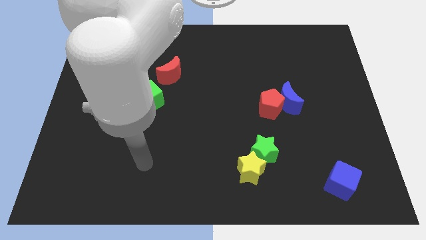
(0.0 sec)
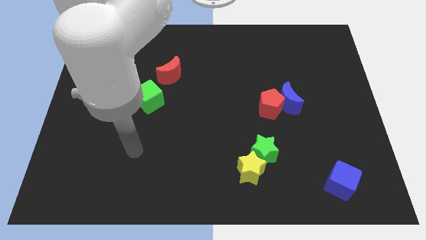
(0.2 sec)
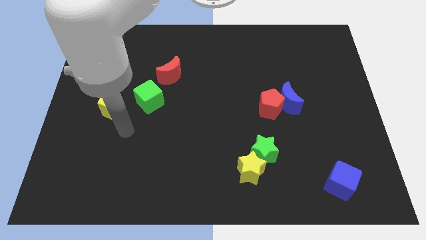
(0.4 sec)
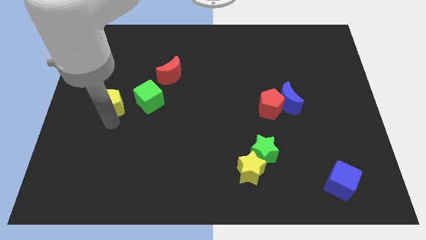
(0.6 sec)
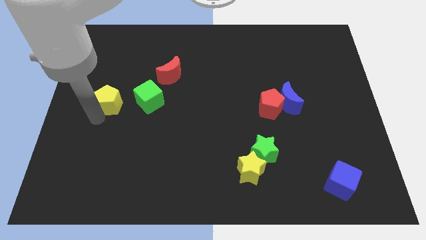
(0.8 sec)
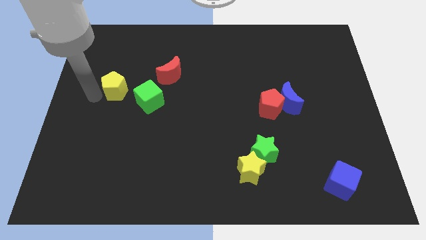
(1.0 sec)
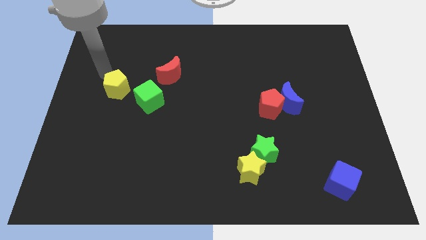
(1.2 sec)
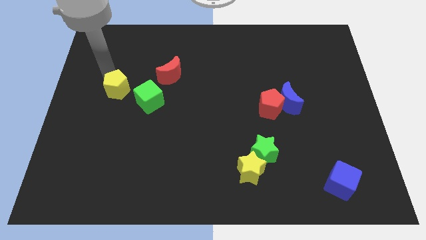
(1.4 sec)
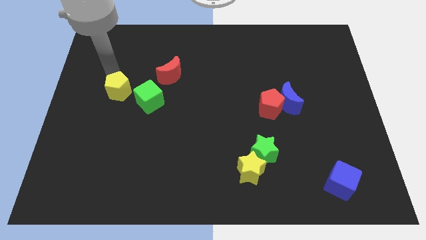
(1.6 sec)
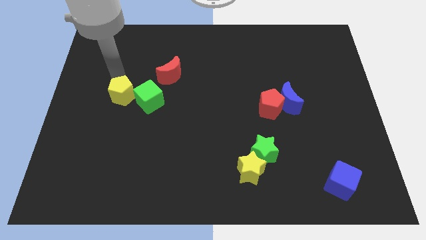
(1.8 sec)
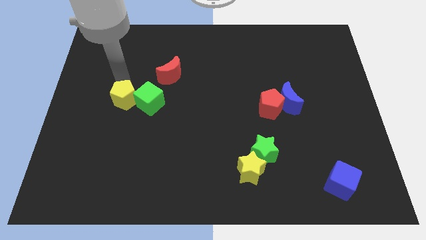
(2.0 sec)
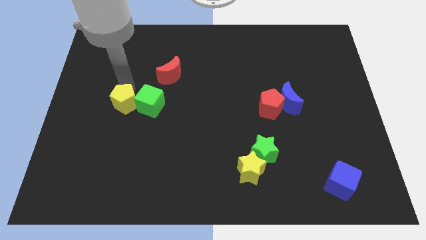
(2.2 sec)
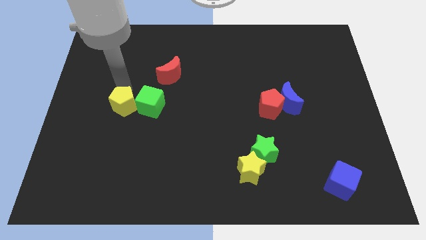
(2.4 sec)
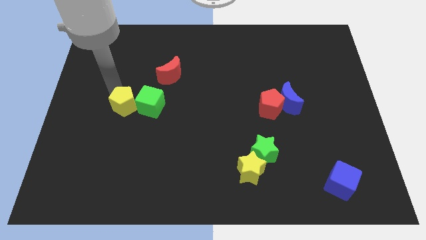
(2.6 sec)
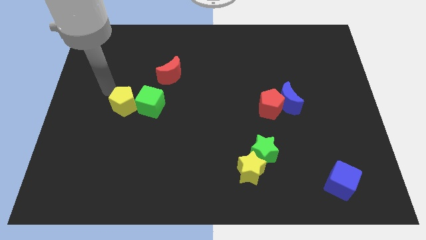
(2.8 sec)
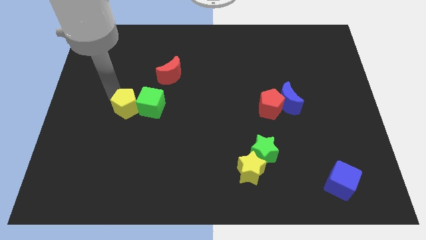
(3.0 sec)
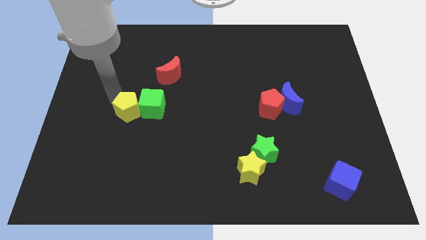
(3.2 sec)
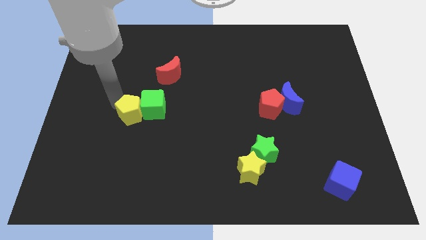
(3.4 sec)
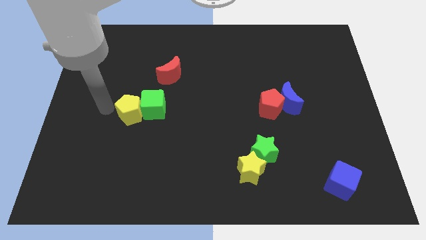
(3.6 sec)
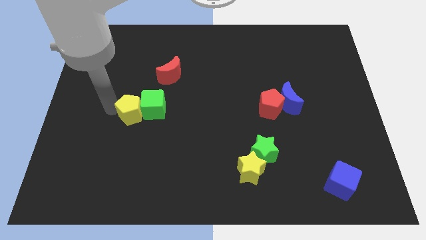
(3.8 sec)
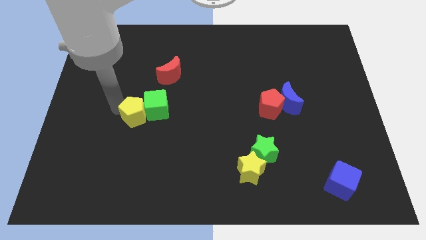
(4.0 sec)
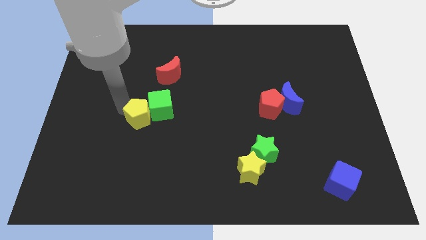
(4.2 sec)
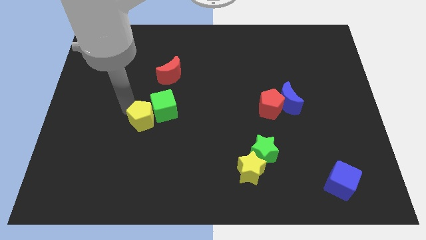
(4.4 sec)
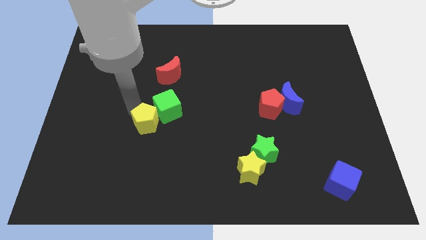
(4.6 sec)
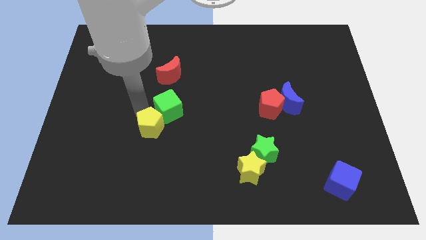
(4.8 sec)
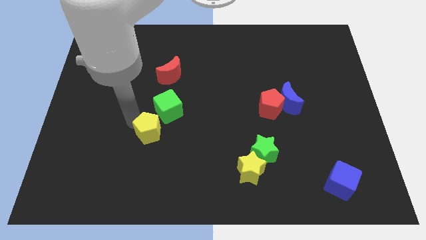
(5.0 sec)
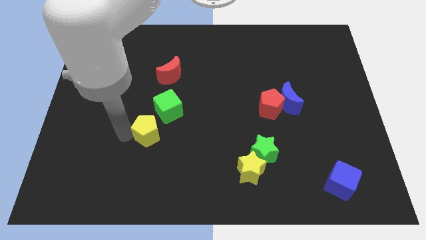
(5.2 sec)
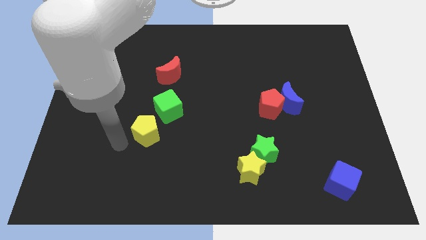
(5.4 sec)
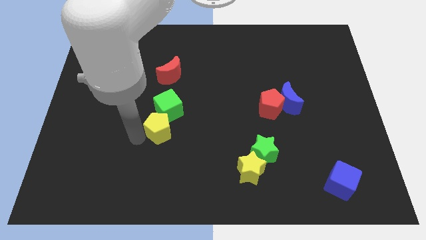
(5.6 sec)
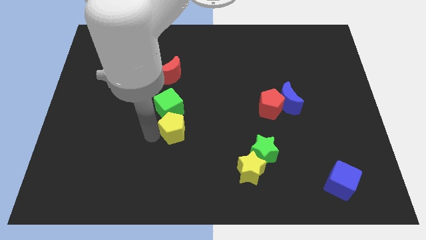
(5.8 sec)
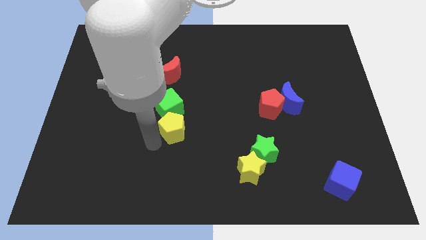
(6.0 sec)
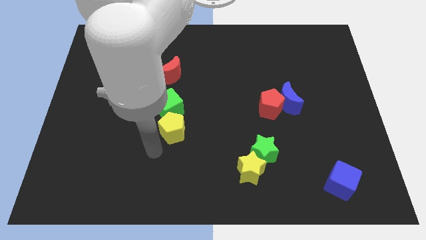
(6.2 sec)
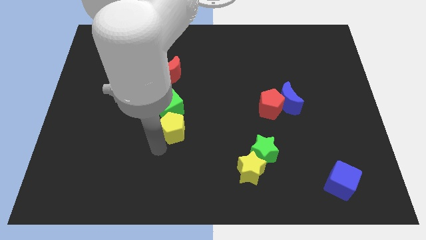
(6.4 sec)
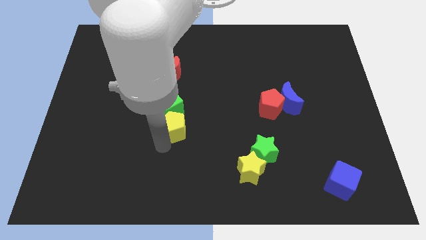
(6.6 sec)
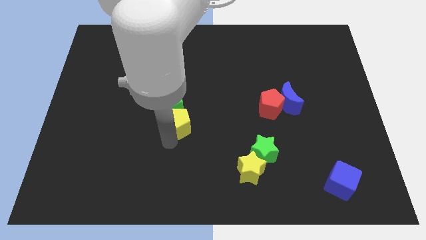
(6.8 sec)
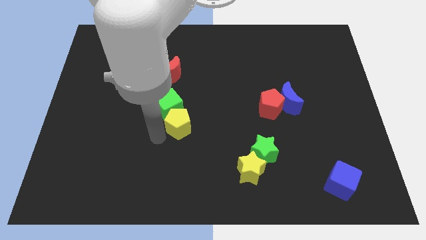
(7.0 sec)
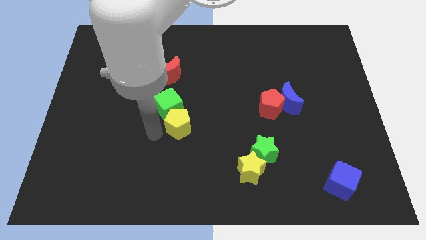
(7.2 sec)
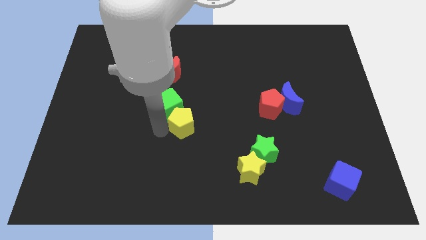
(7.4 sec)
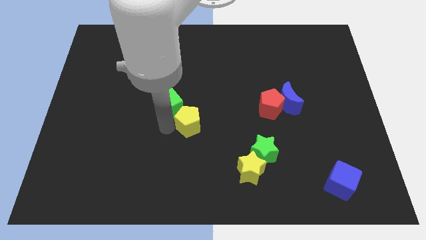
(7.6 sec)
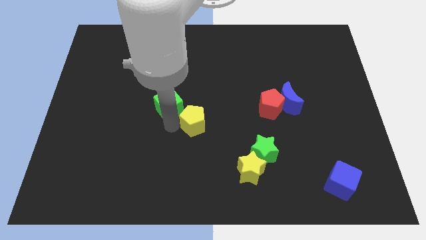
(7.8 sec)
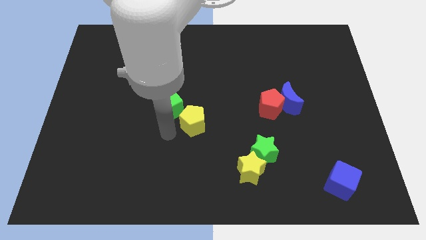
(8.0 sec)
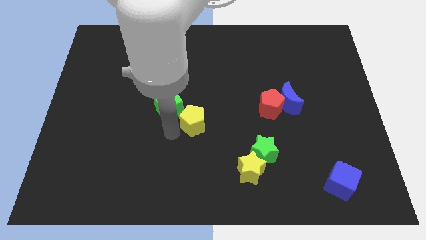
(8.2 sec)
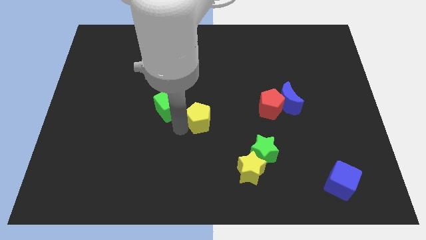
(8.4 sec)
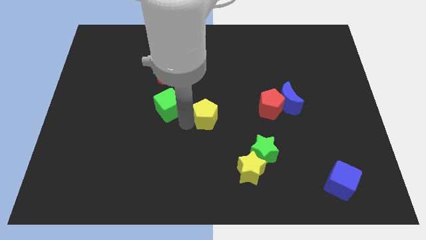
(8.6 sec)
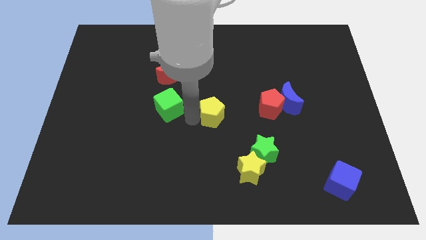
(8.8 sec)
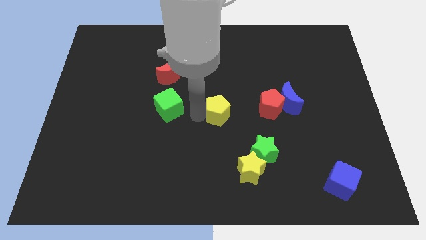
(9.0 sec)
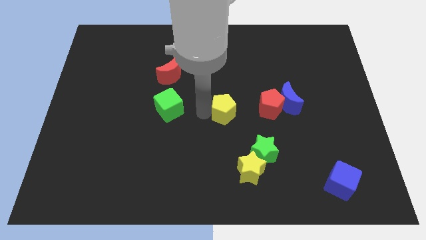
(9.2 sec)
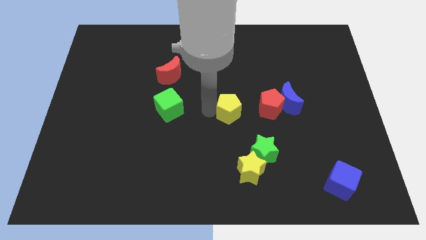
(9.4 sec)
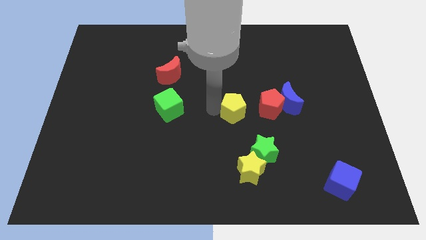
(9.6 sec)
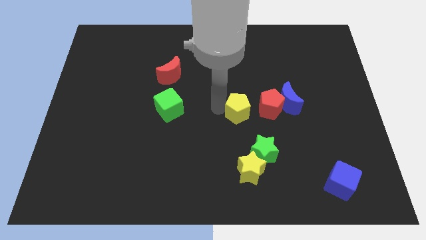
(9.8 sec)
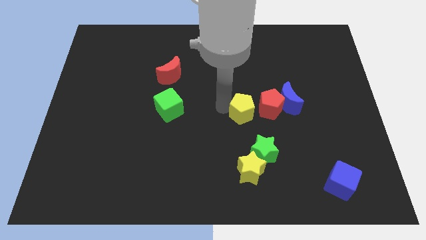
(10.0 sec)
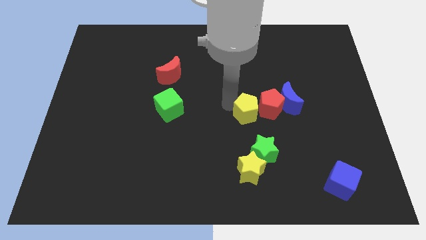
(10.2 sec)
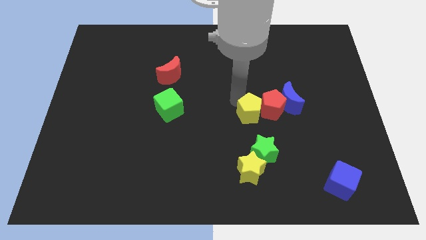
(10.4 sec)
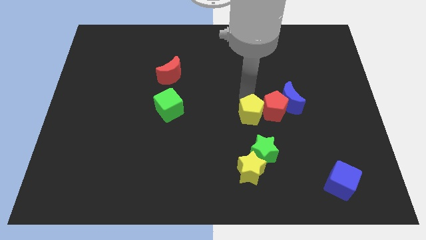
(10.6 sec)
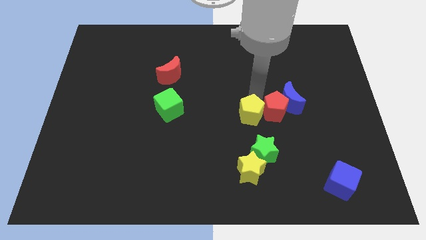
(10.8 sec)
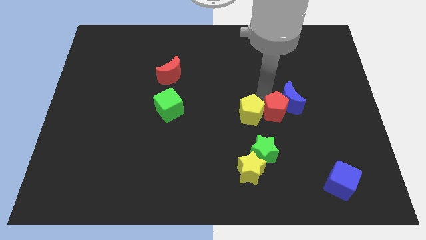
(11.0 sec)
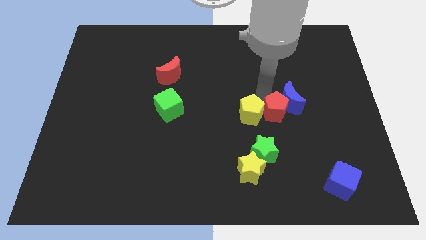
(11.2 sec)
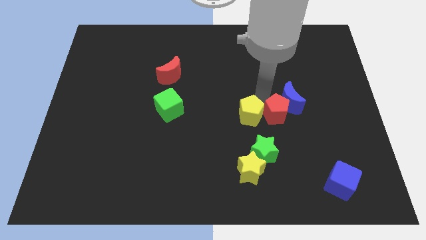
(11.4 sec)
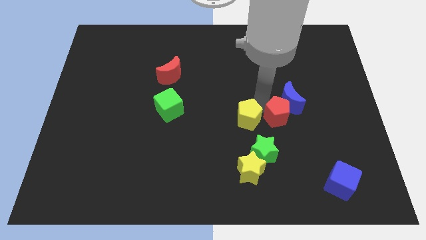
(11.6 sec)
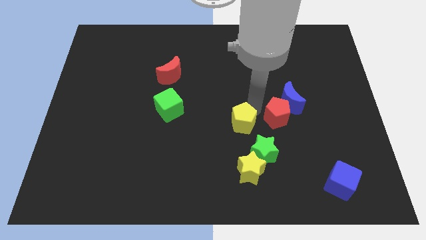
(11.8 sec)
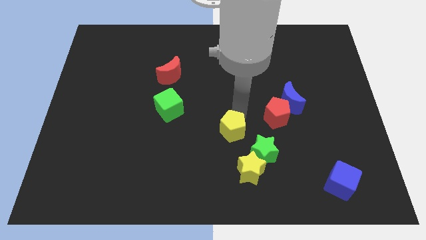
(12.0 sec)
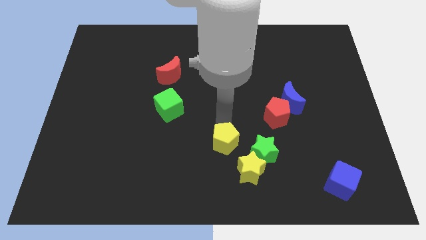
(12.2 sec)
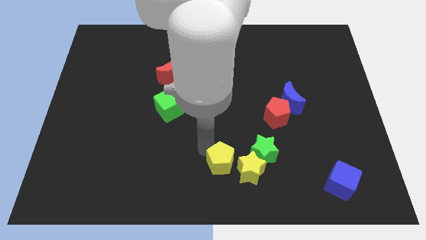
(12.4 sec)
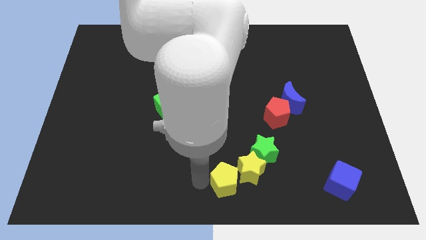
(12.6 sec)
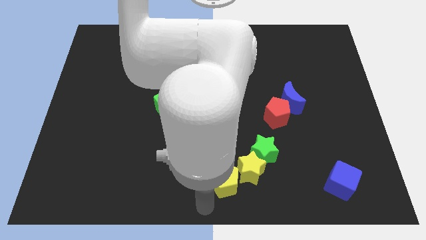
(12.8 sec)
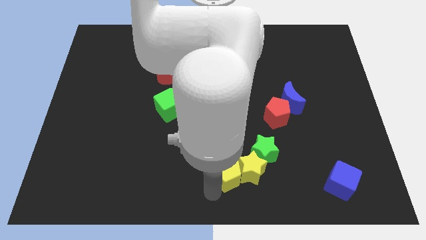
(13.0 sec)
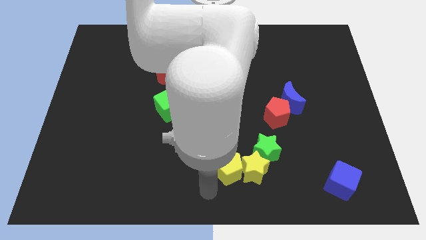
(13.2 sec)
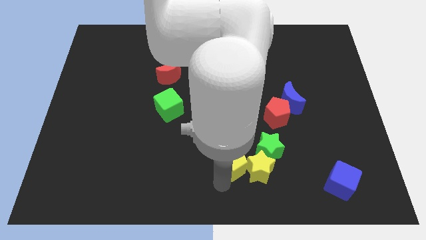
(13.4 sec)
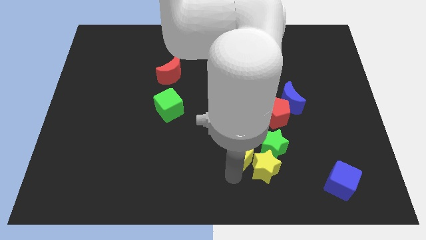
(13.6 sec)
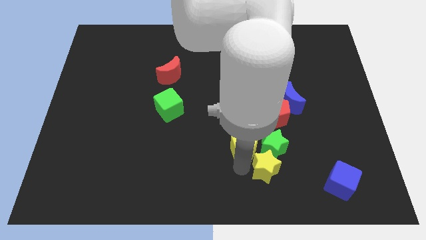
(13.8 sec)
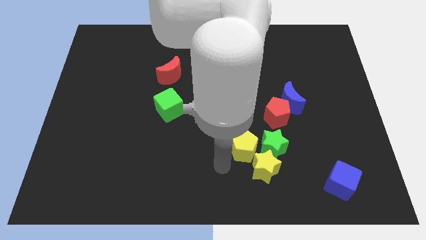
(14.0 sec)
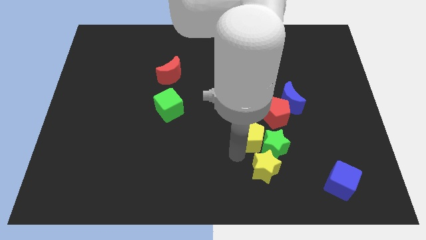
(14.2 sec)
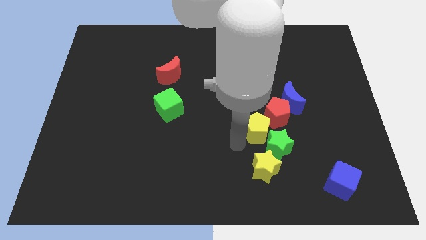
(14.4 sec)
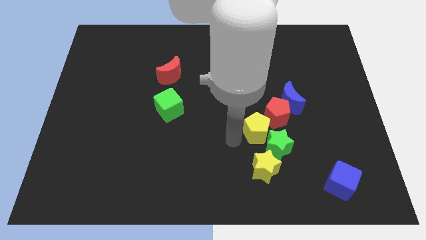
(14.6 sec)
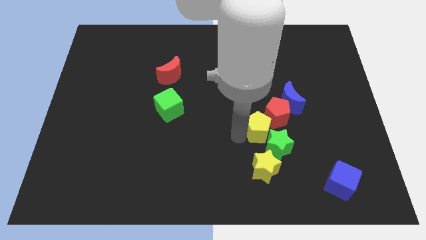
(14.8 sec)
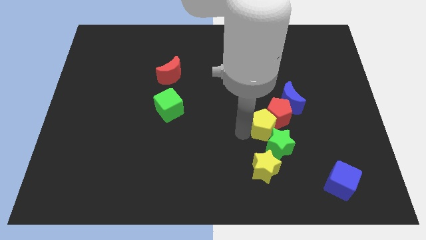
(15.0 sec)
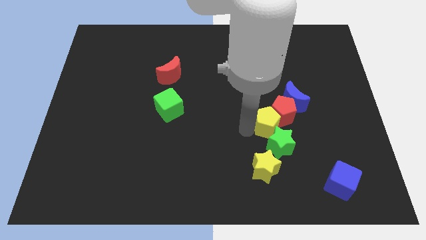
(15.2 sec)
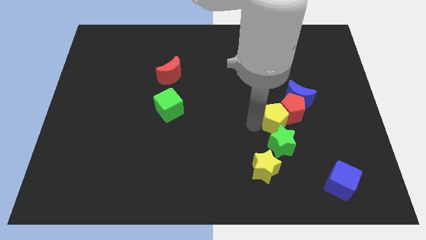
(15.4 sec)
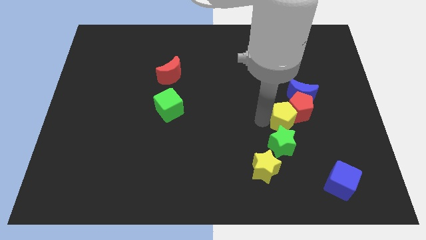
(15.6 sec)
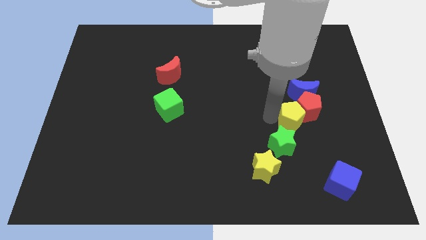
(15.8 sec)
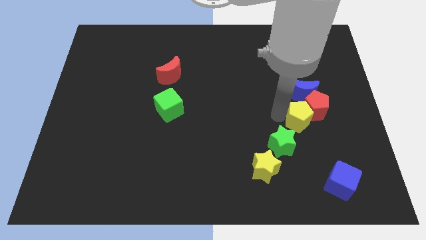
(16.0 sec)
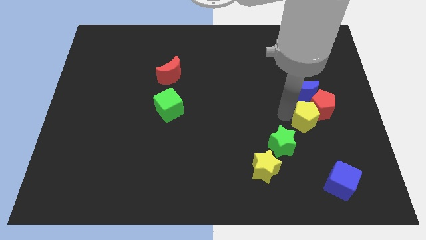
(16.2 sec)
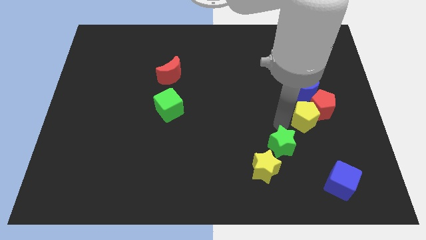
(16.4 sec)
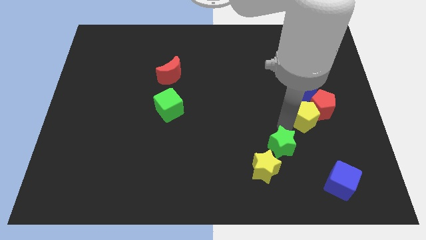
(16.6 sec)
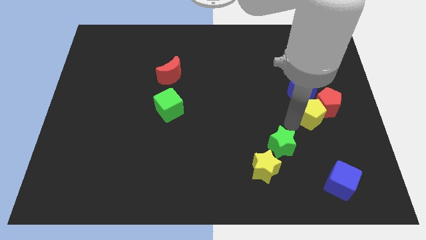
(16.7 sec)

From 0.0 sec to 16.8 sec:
put the yellow pentagon to the bottom right side of the blue moon
